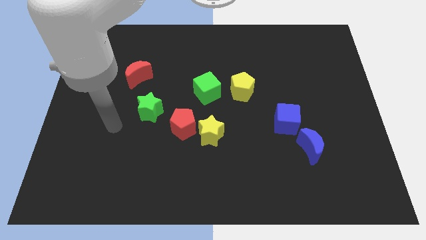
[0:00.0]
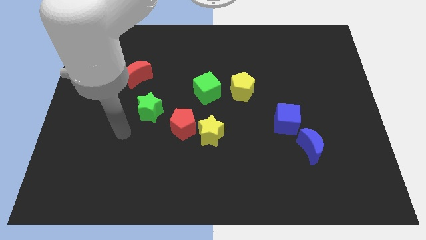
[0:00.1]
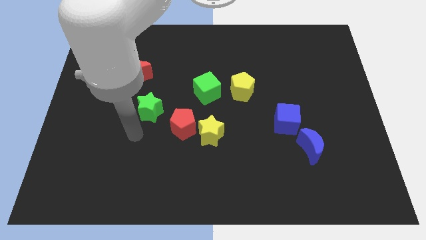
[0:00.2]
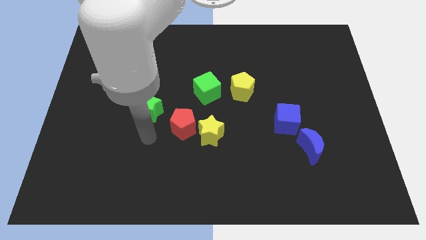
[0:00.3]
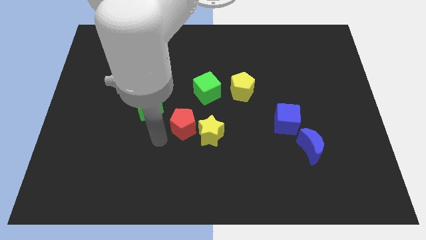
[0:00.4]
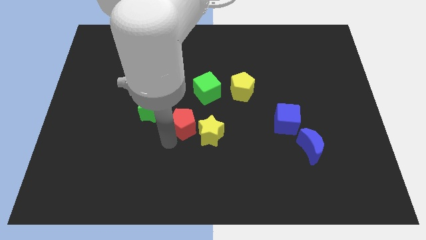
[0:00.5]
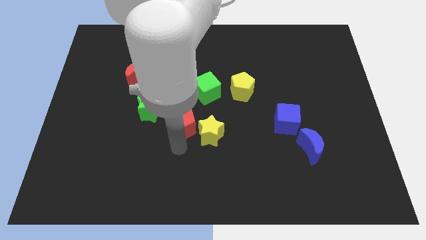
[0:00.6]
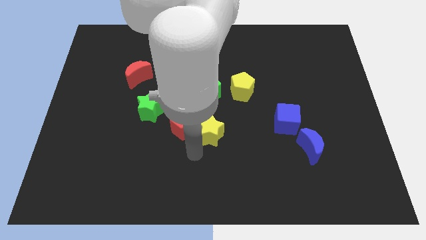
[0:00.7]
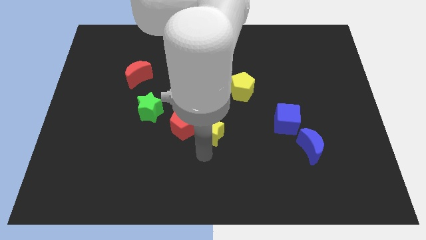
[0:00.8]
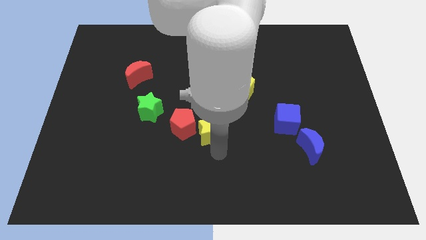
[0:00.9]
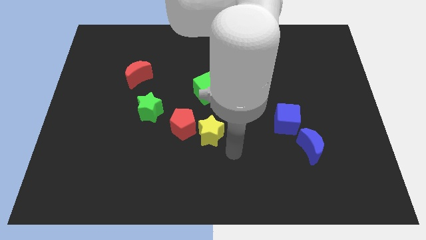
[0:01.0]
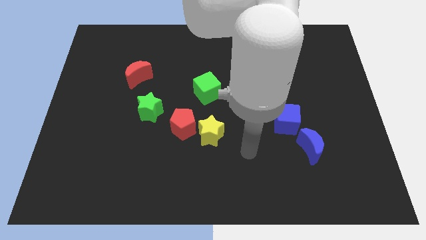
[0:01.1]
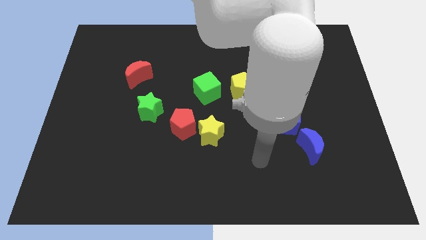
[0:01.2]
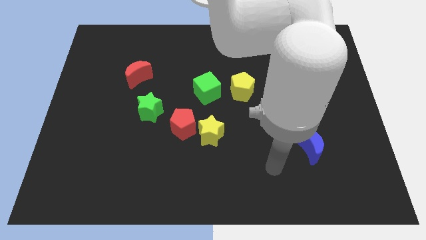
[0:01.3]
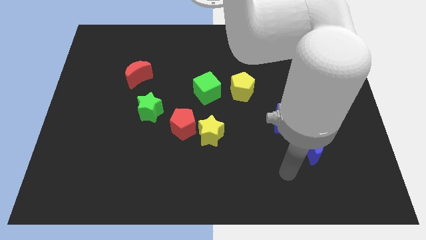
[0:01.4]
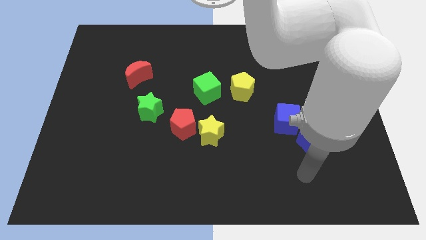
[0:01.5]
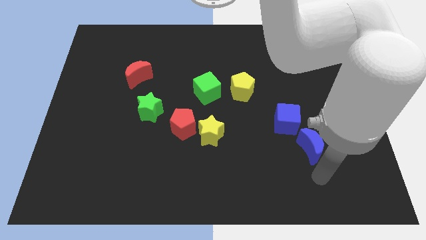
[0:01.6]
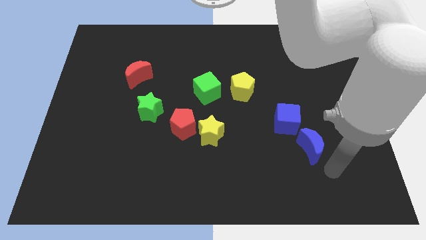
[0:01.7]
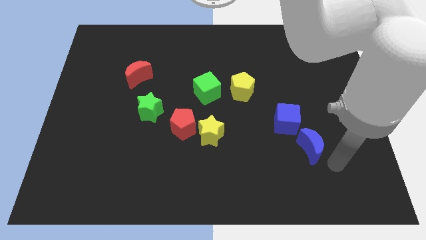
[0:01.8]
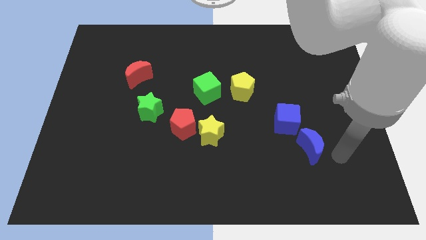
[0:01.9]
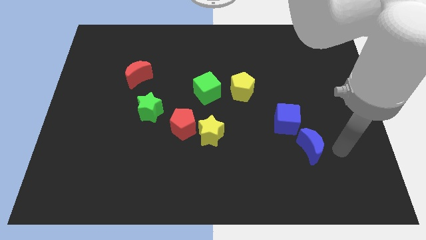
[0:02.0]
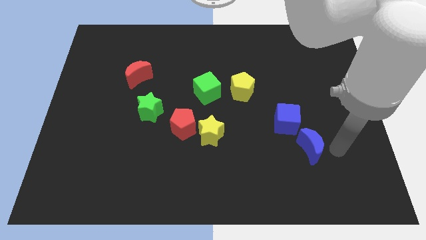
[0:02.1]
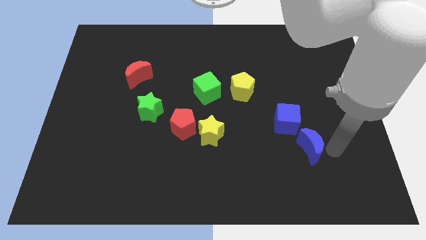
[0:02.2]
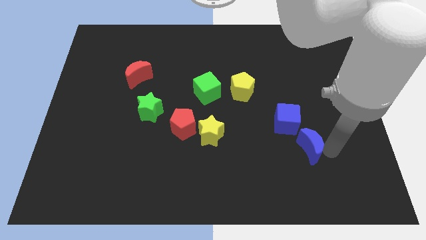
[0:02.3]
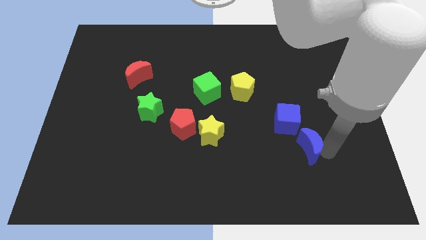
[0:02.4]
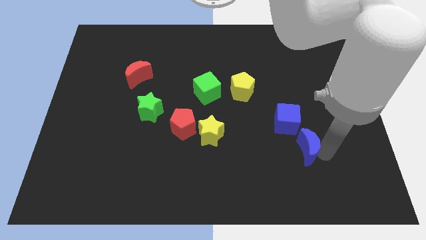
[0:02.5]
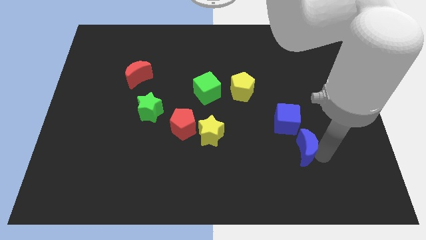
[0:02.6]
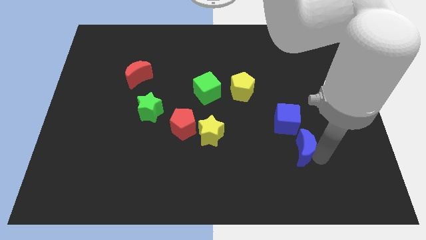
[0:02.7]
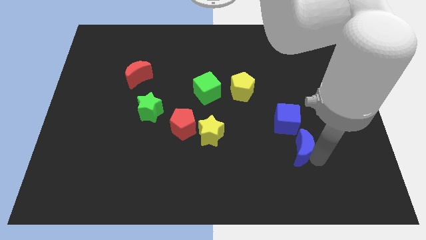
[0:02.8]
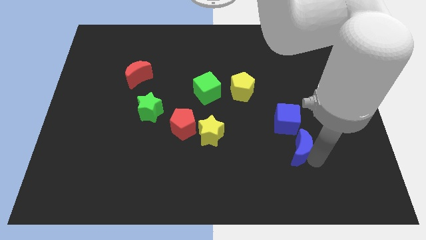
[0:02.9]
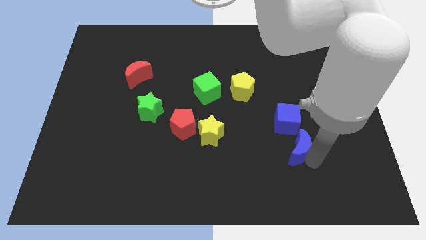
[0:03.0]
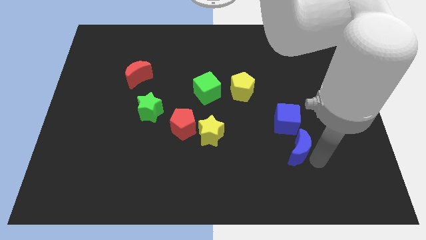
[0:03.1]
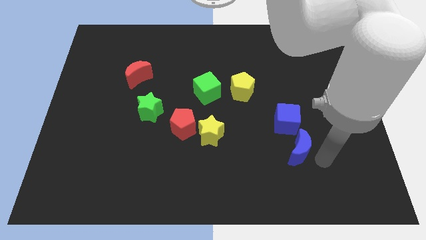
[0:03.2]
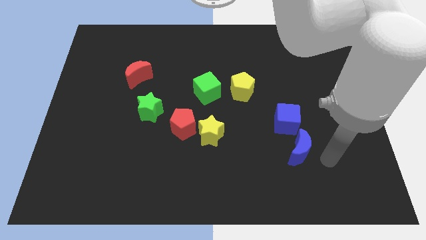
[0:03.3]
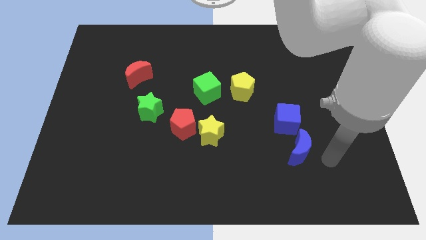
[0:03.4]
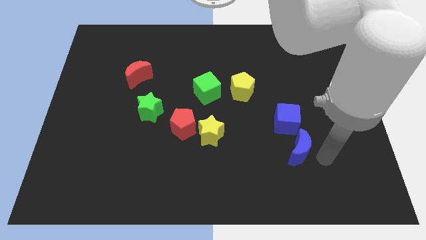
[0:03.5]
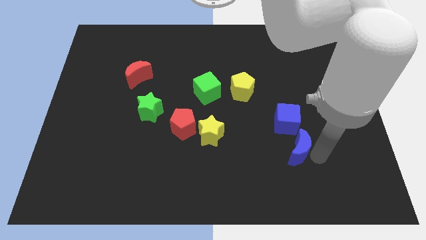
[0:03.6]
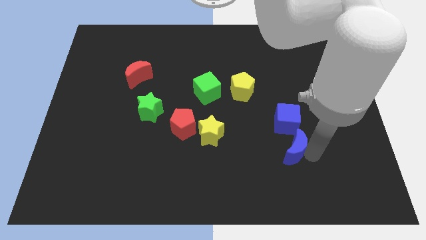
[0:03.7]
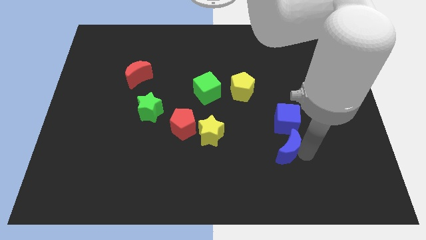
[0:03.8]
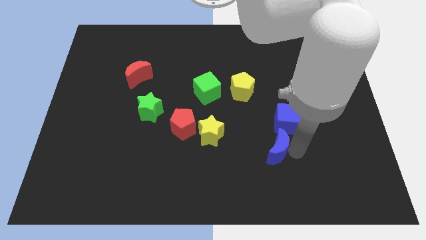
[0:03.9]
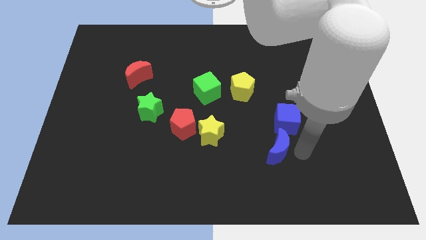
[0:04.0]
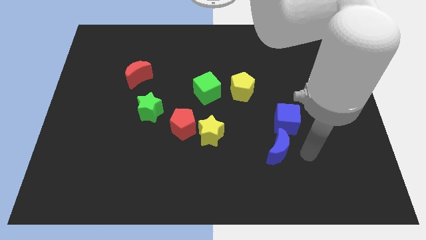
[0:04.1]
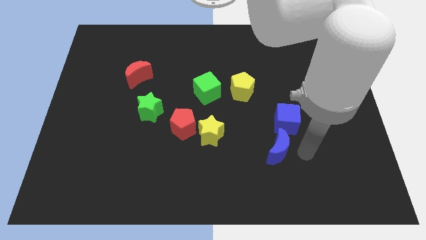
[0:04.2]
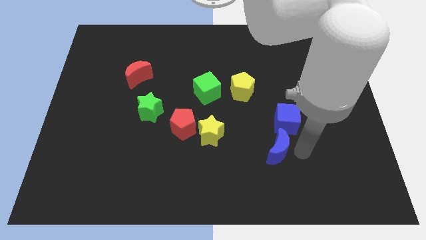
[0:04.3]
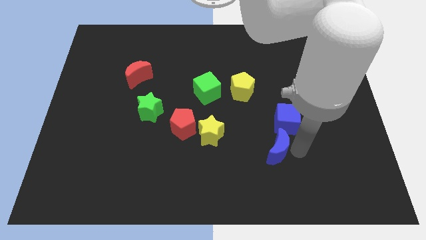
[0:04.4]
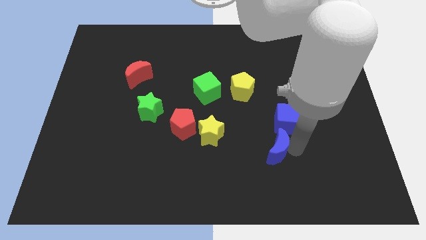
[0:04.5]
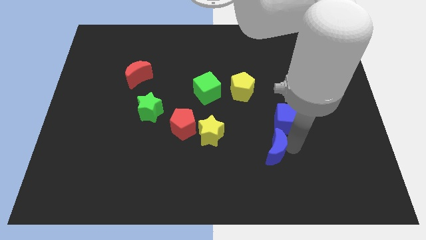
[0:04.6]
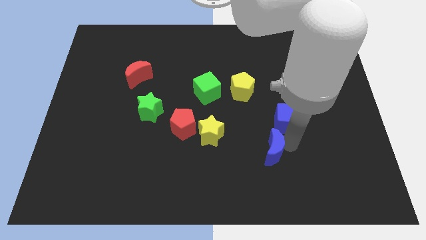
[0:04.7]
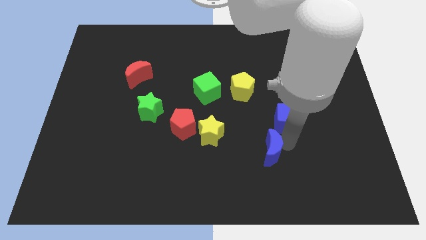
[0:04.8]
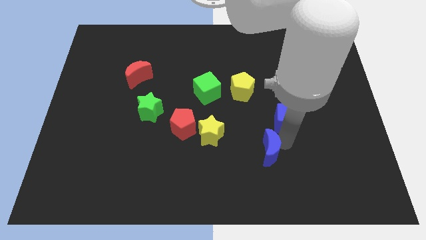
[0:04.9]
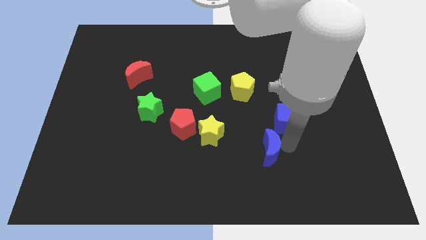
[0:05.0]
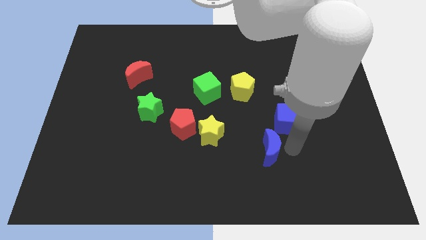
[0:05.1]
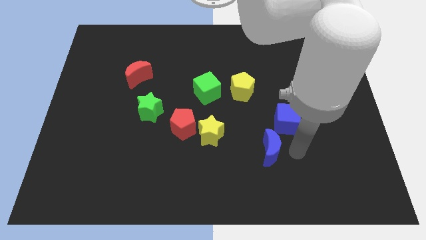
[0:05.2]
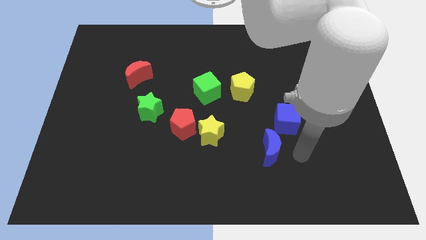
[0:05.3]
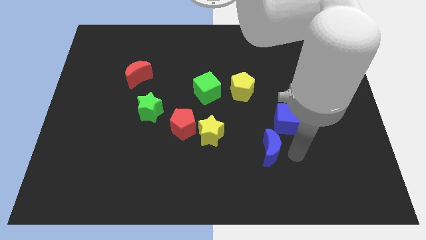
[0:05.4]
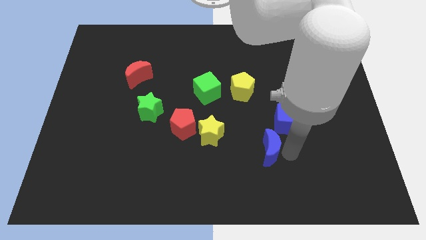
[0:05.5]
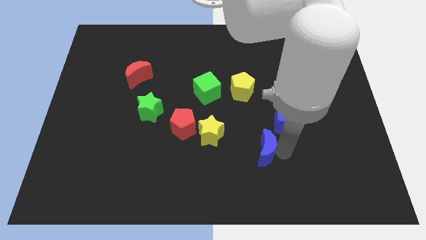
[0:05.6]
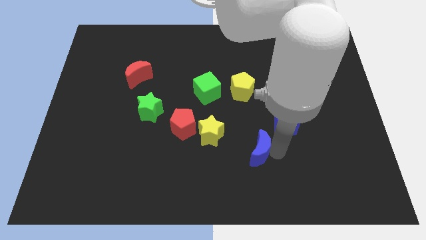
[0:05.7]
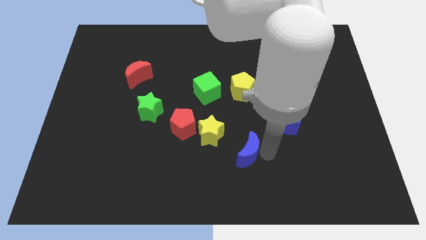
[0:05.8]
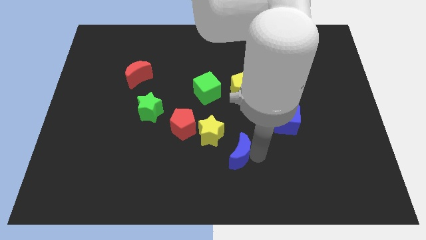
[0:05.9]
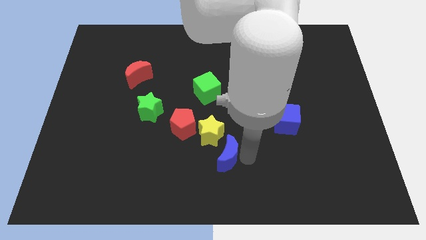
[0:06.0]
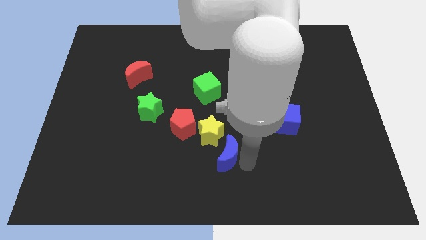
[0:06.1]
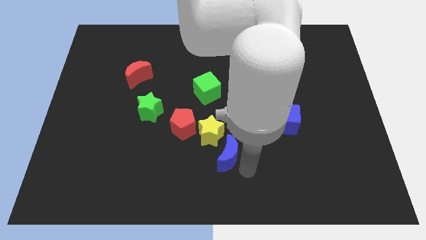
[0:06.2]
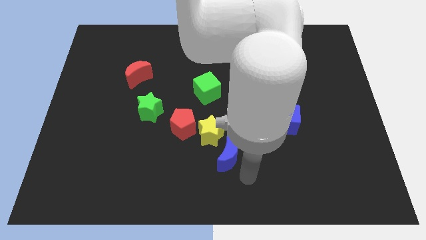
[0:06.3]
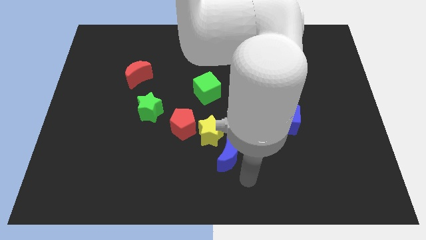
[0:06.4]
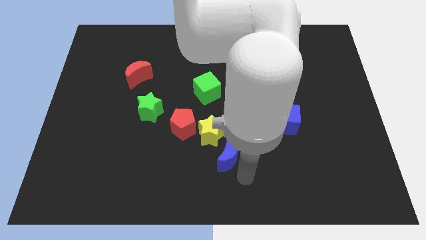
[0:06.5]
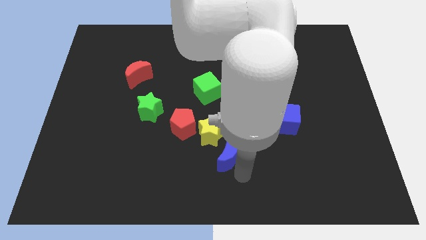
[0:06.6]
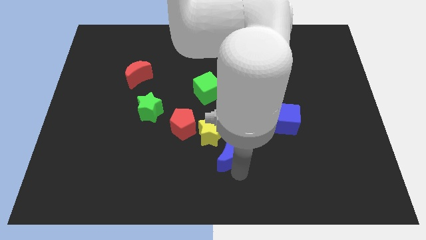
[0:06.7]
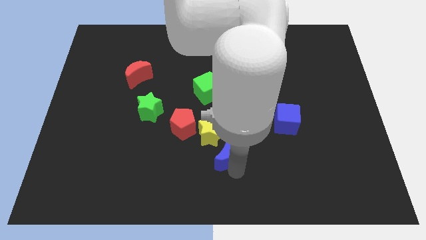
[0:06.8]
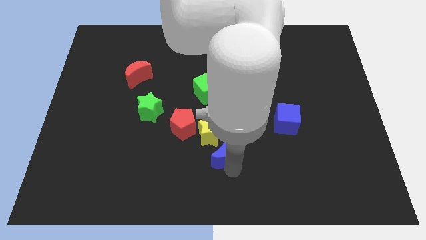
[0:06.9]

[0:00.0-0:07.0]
push the blue moon close to the yellow star

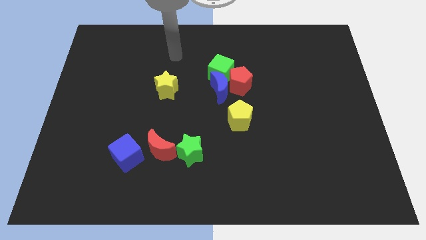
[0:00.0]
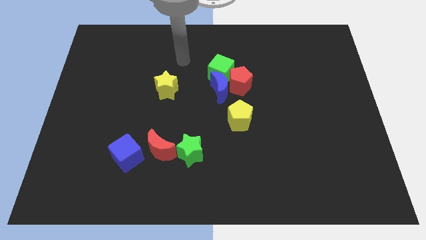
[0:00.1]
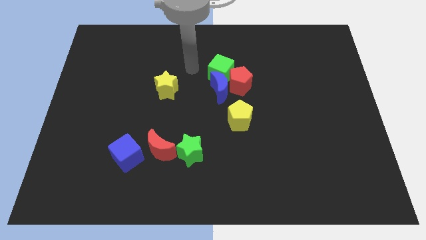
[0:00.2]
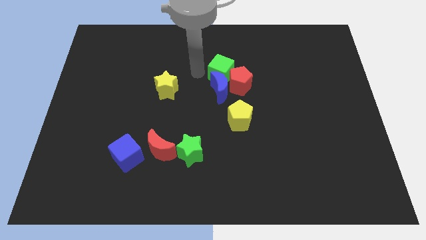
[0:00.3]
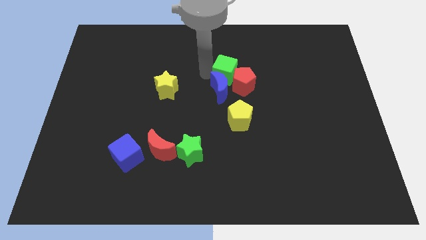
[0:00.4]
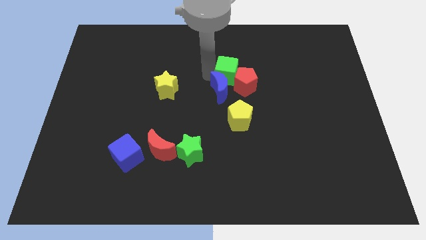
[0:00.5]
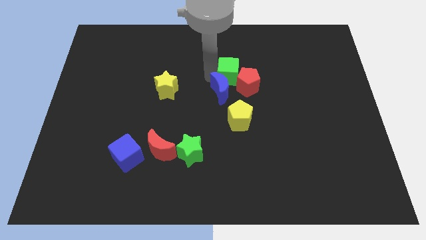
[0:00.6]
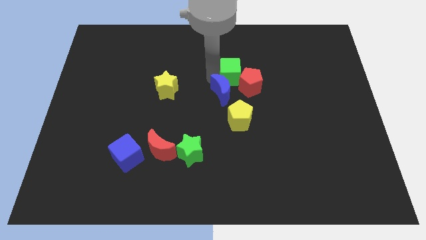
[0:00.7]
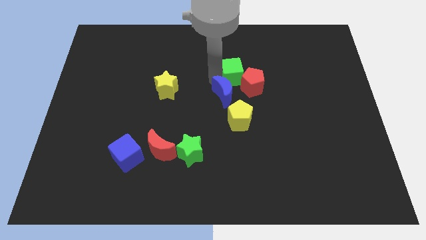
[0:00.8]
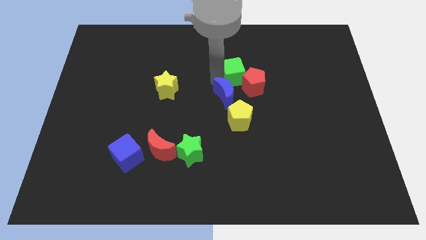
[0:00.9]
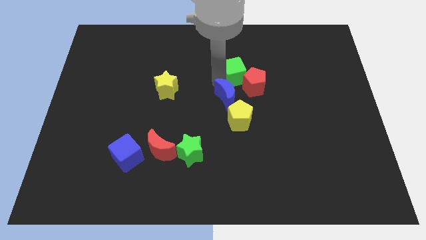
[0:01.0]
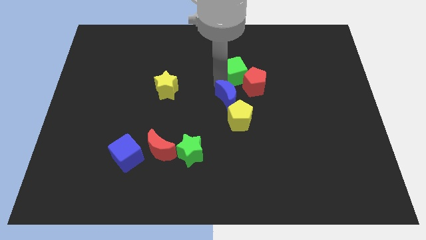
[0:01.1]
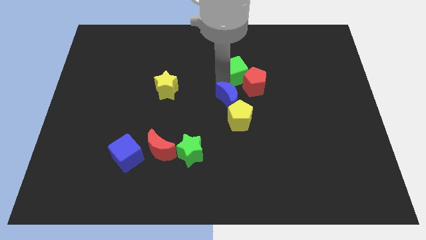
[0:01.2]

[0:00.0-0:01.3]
slide the blue moon to the yellow pentagon
